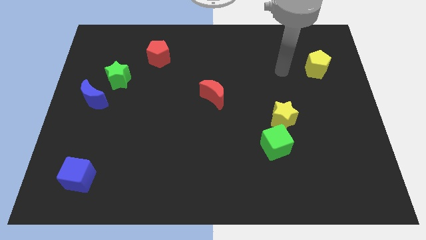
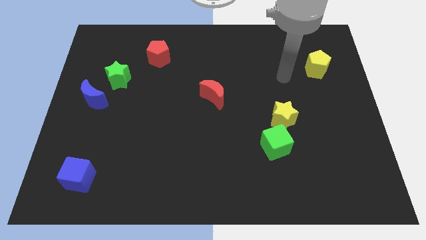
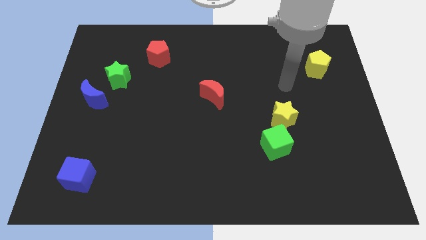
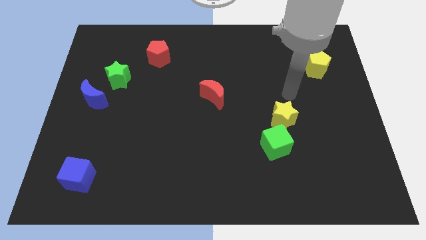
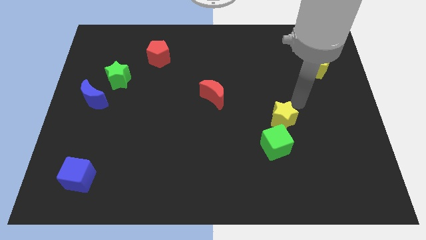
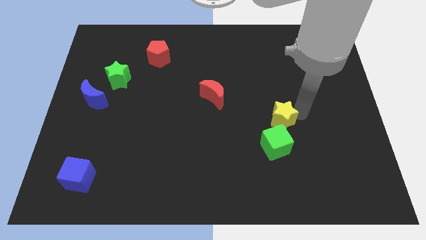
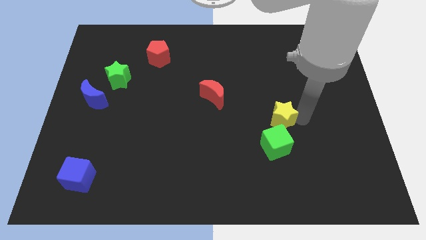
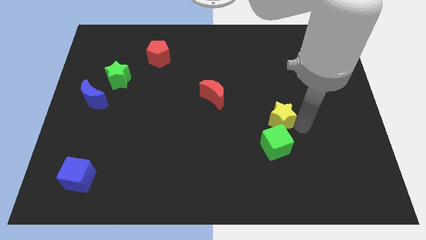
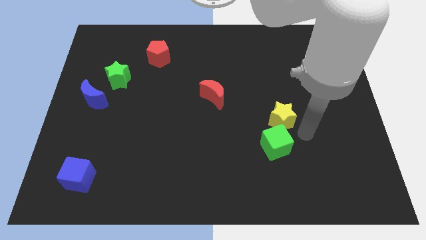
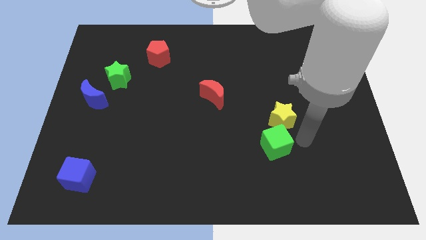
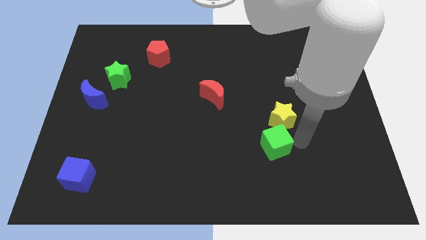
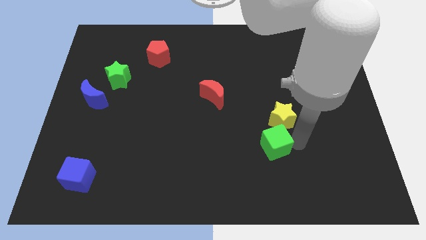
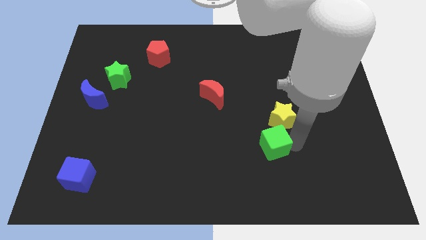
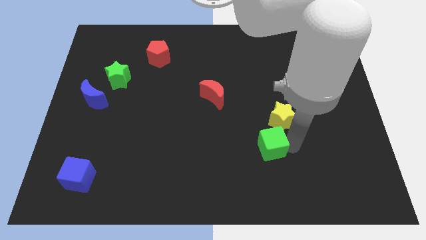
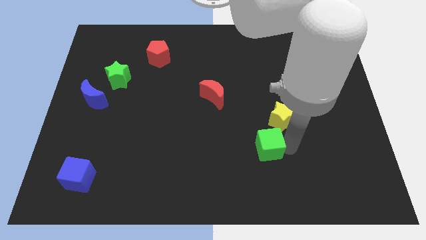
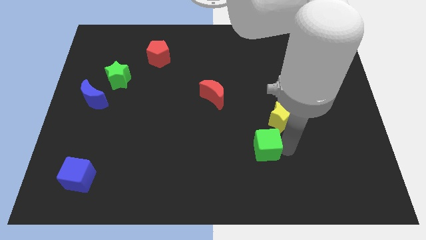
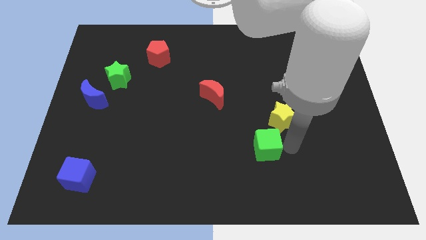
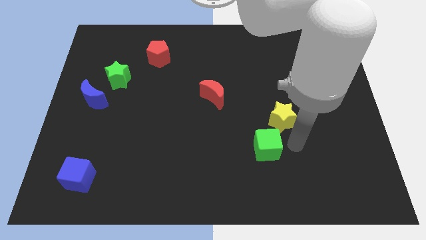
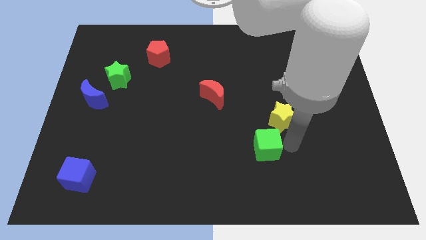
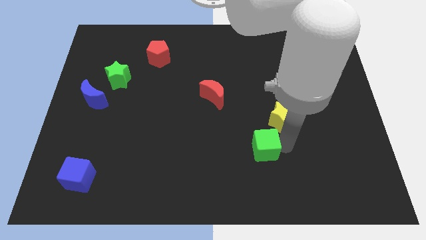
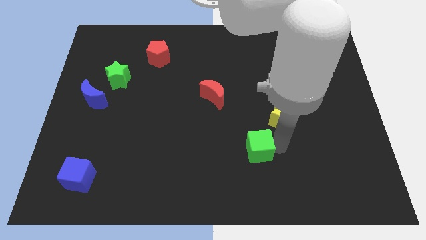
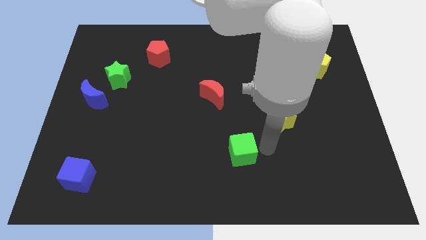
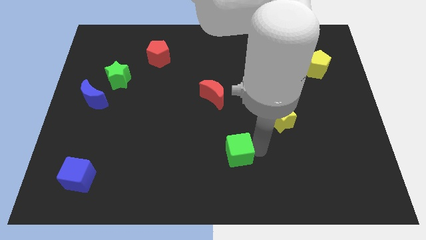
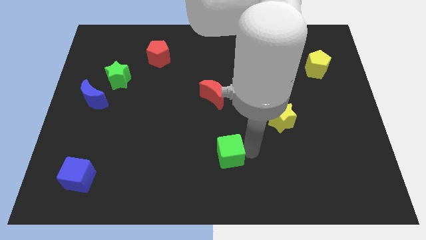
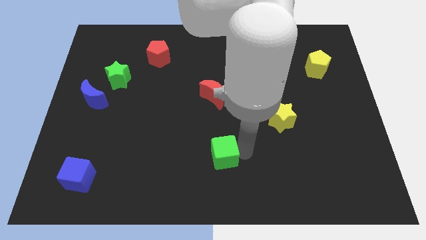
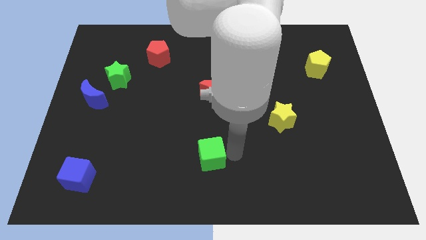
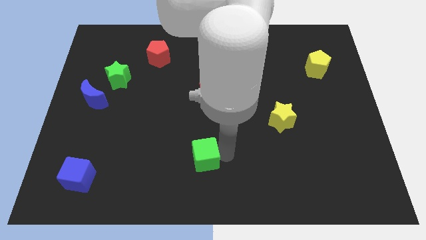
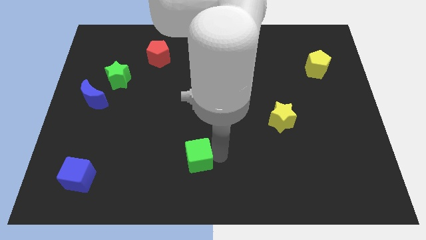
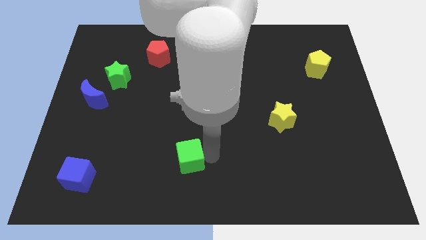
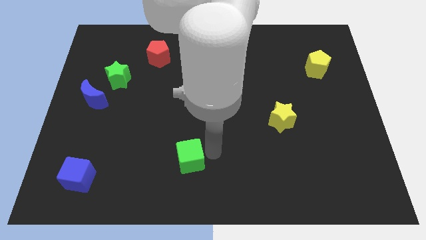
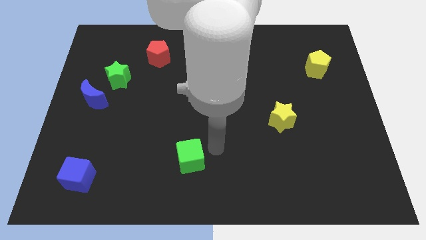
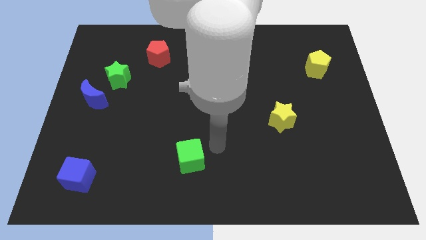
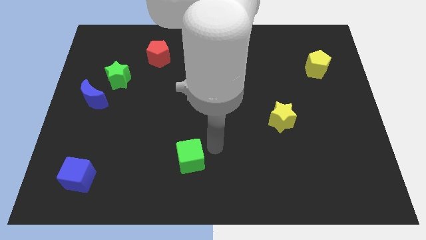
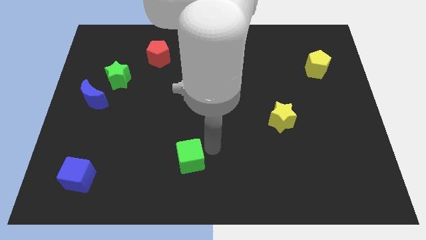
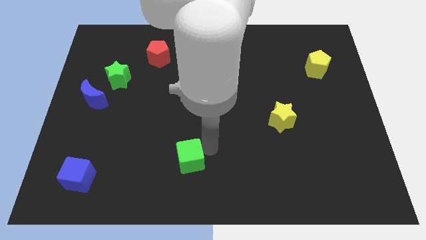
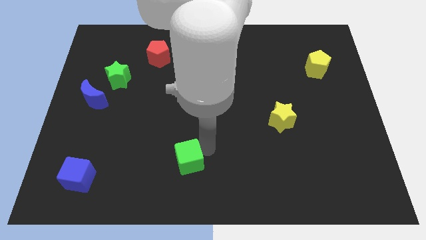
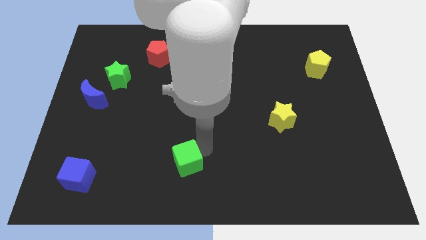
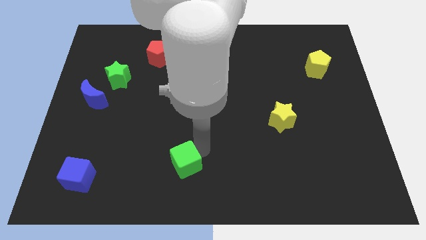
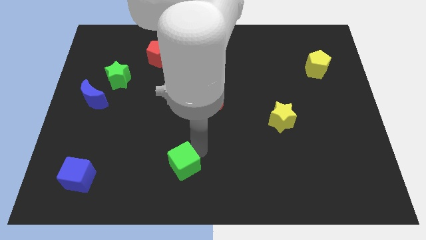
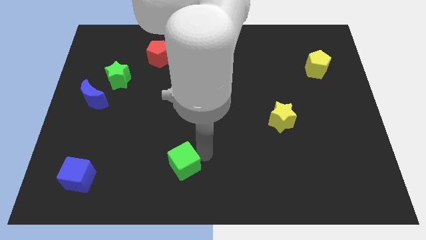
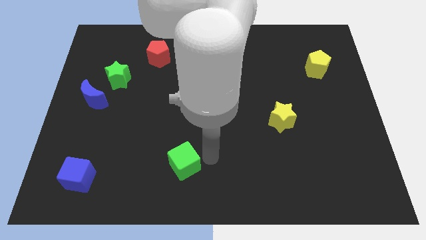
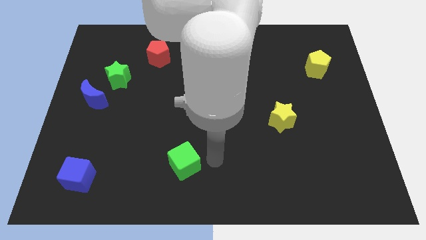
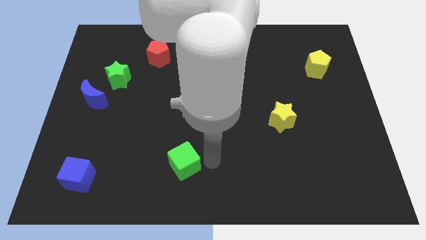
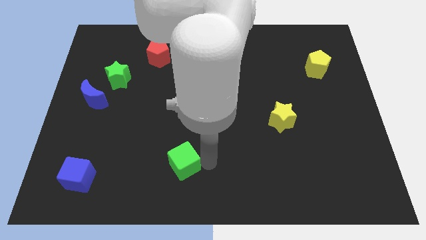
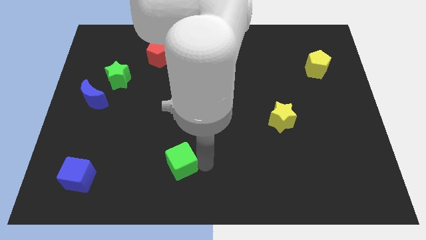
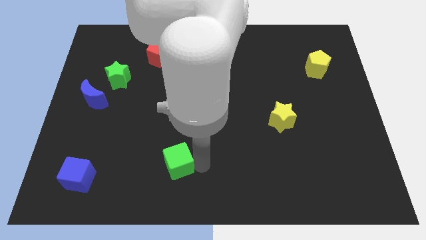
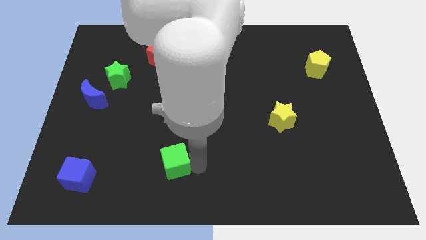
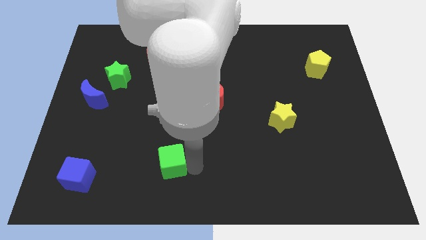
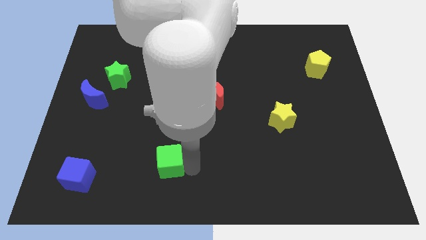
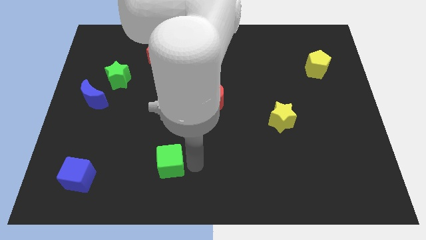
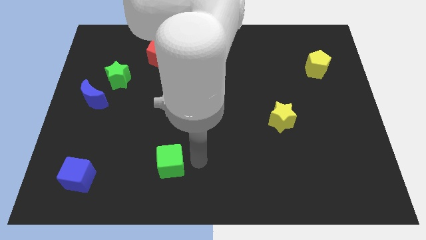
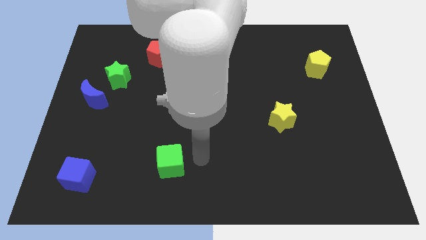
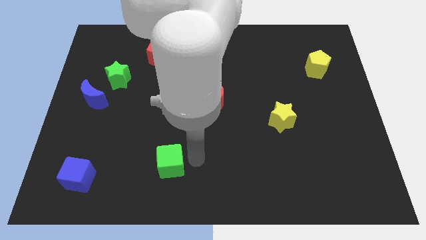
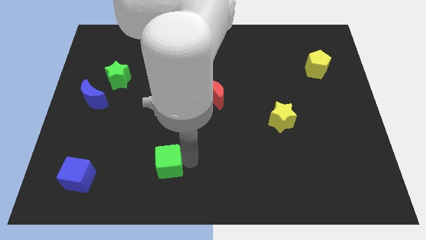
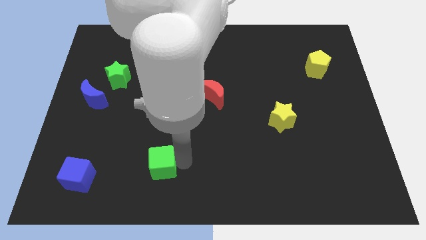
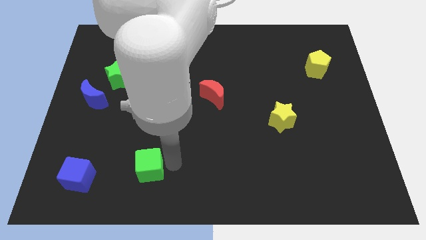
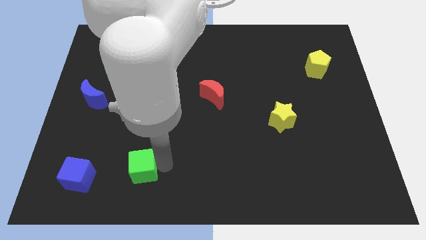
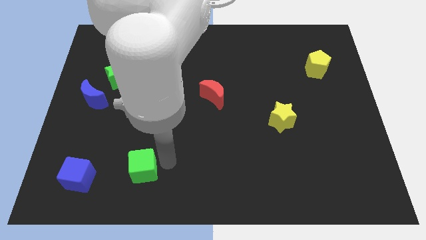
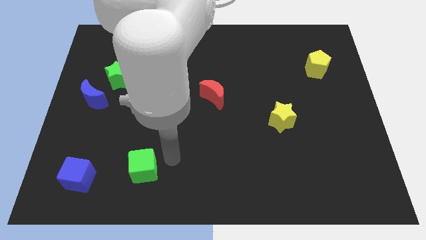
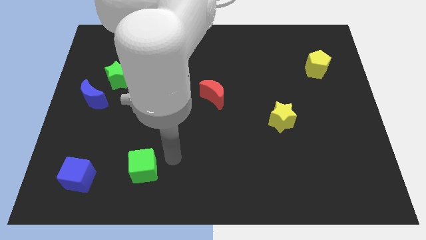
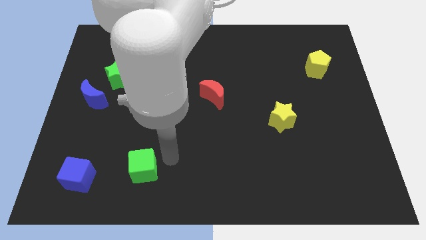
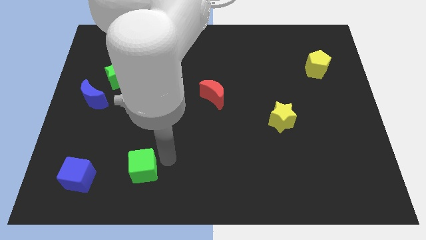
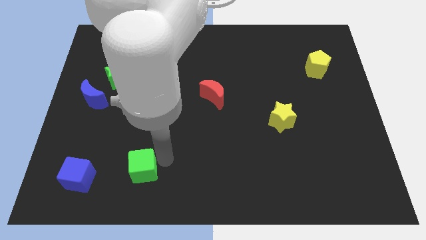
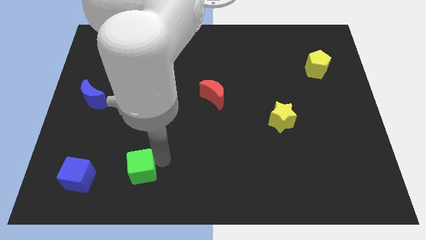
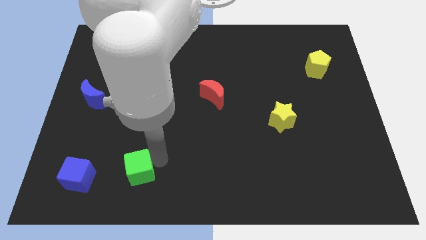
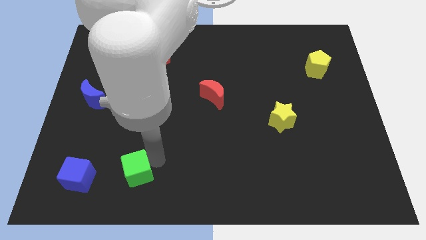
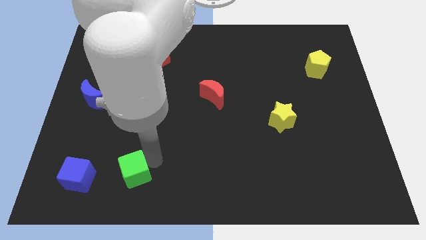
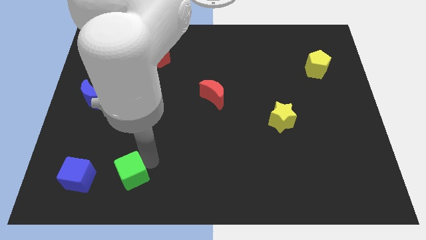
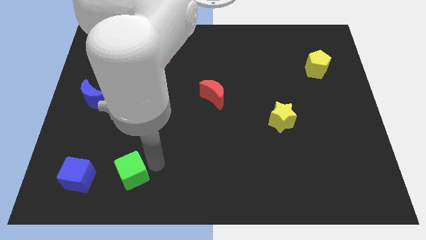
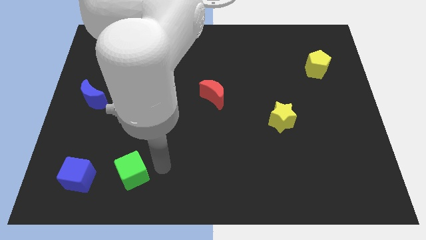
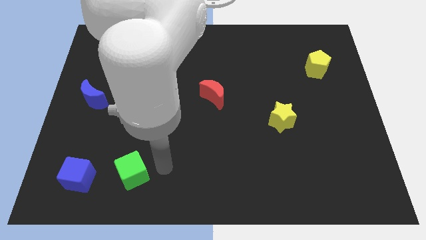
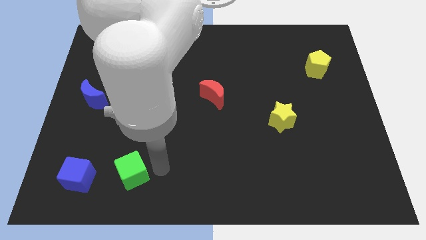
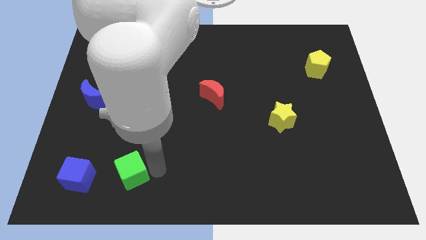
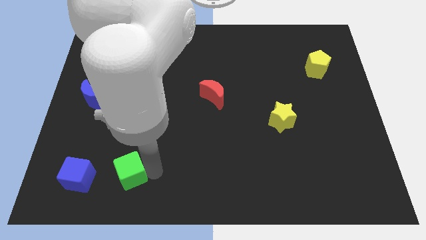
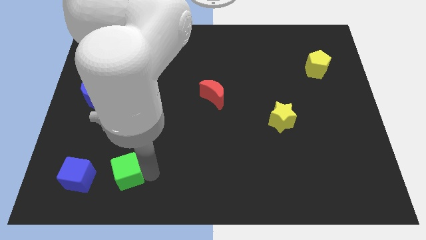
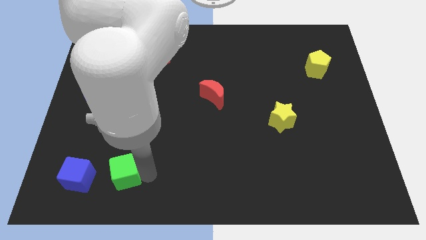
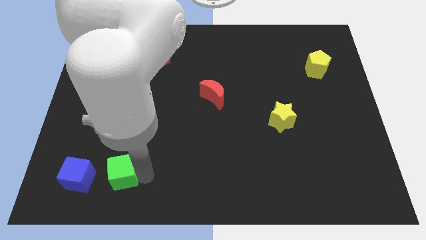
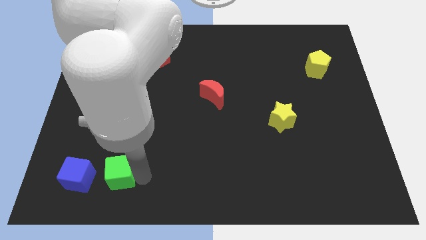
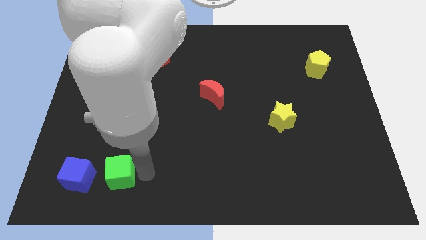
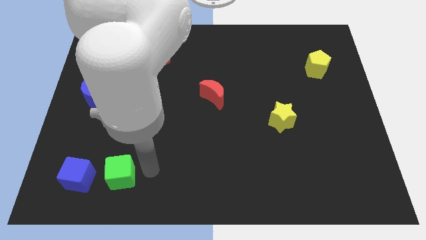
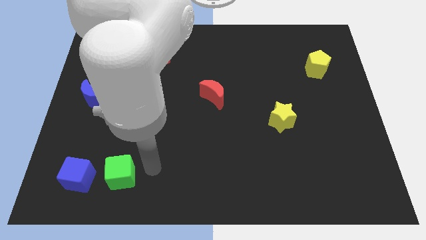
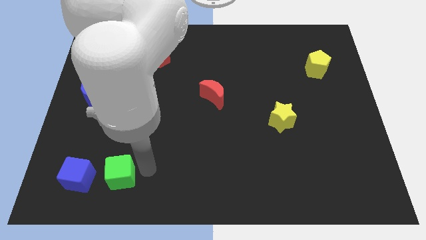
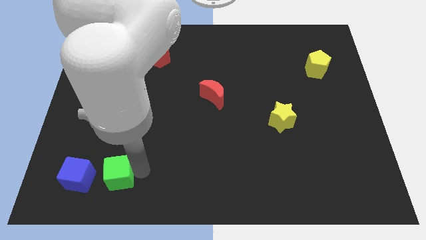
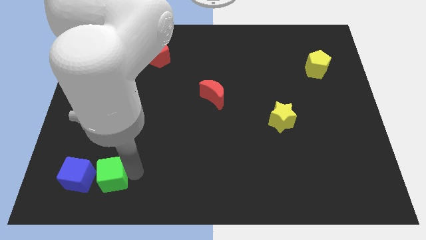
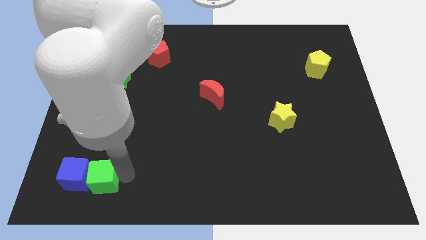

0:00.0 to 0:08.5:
push the green cube next to the blue cube
